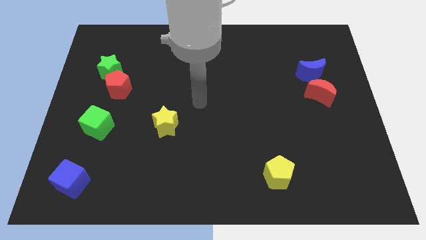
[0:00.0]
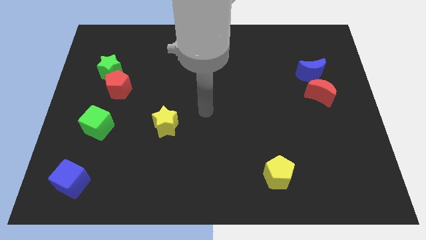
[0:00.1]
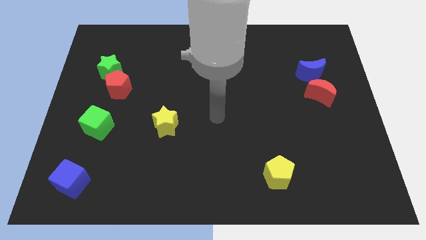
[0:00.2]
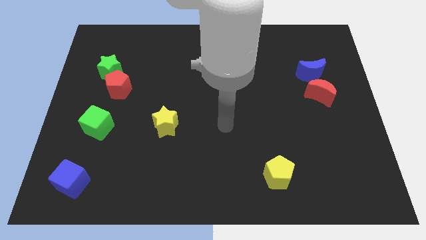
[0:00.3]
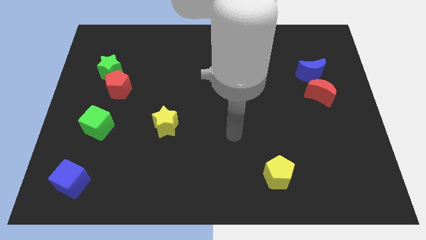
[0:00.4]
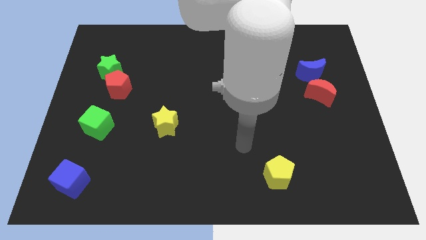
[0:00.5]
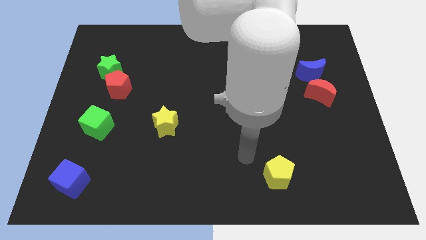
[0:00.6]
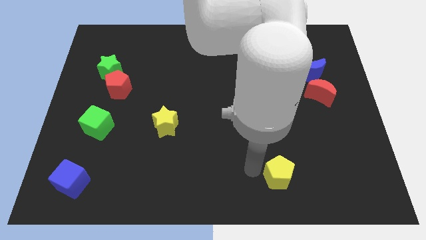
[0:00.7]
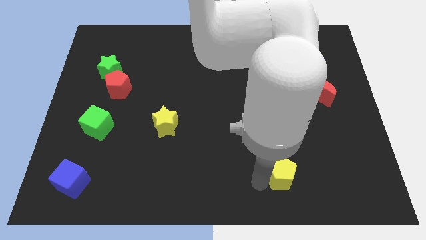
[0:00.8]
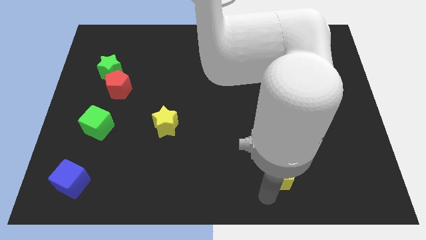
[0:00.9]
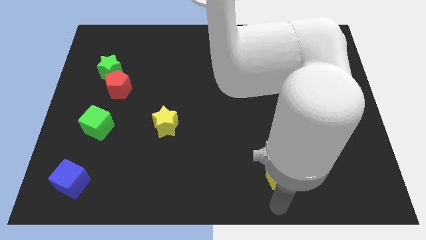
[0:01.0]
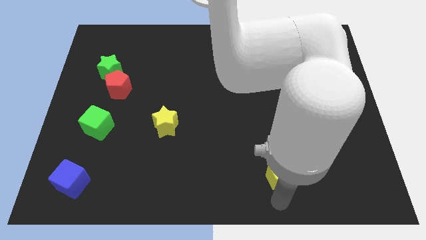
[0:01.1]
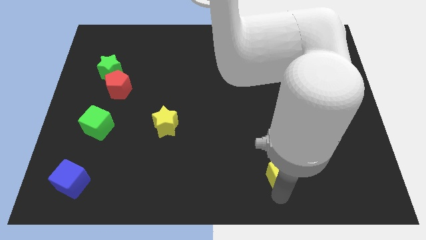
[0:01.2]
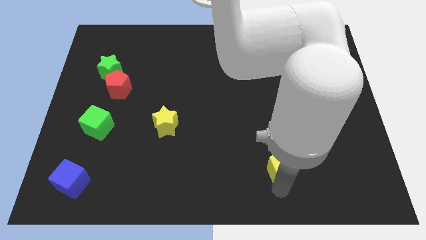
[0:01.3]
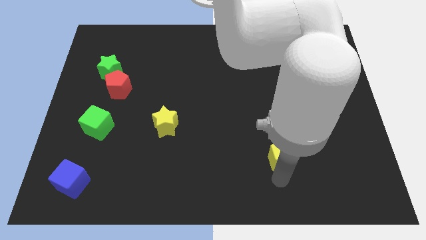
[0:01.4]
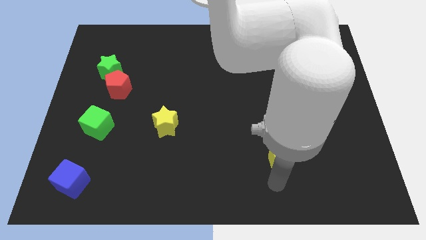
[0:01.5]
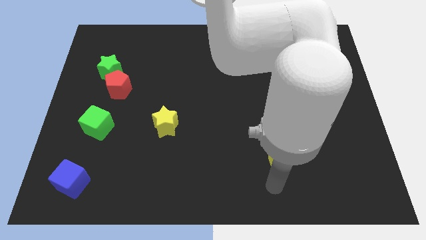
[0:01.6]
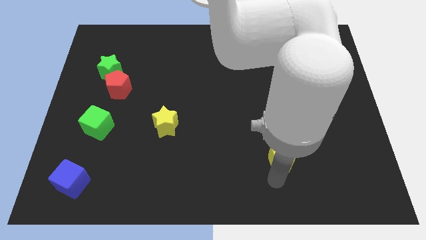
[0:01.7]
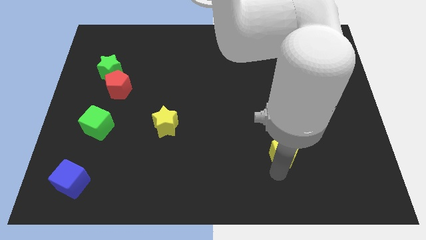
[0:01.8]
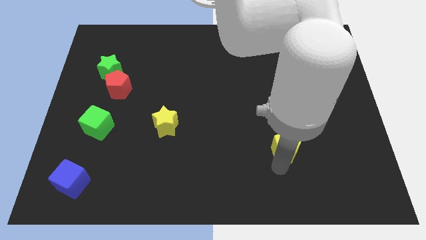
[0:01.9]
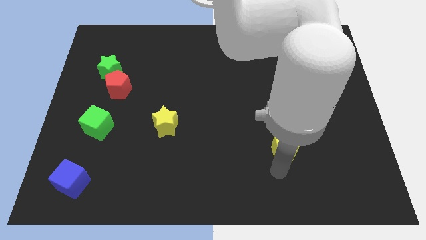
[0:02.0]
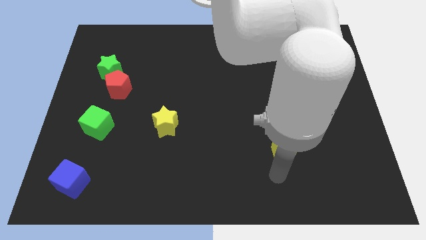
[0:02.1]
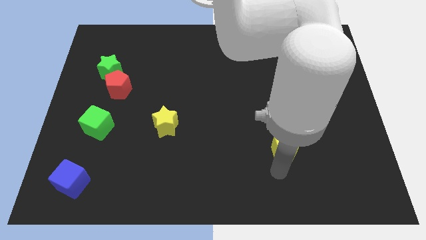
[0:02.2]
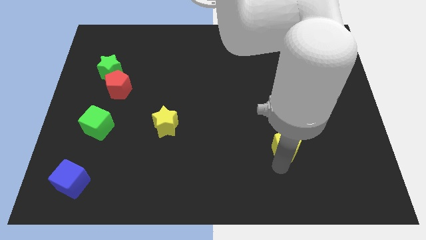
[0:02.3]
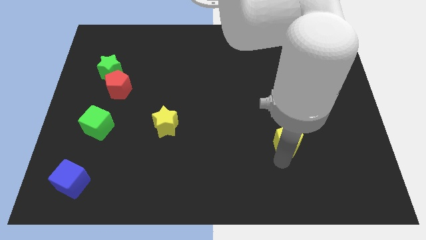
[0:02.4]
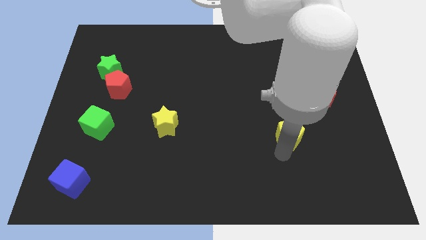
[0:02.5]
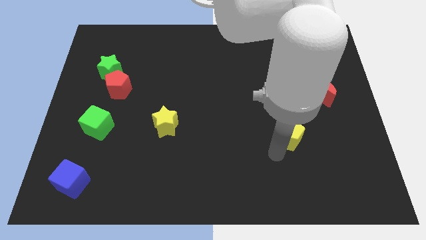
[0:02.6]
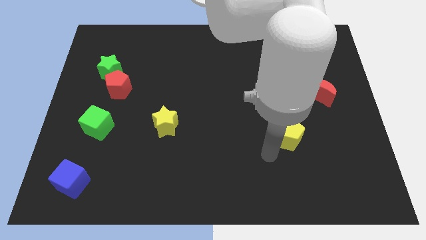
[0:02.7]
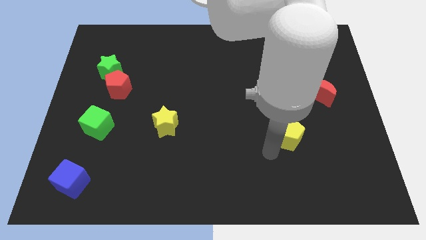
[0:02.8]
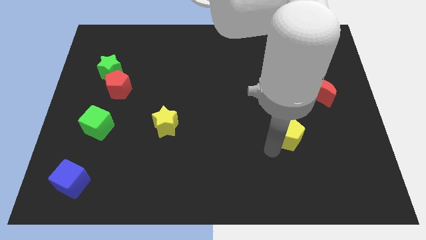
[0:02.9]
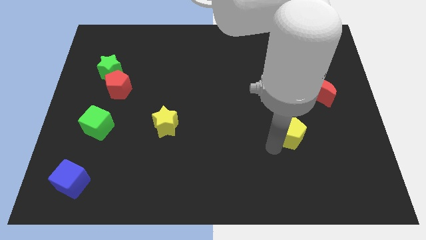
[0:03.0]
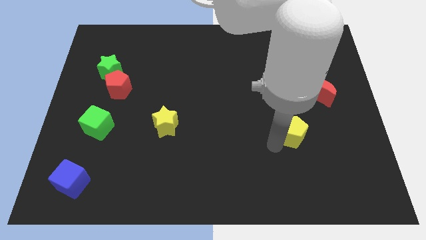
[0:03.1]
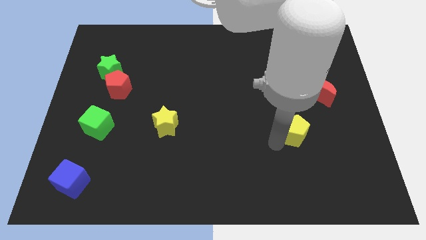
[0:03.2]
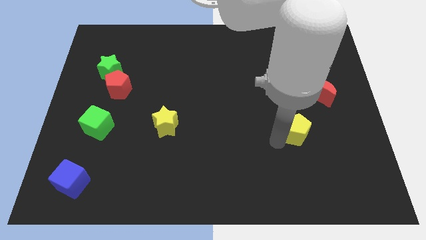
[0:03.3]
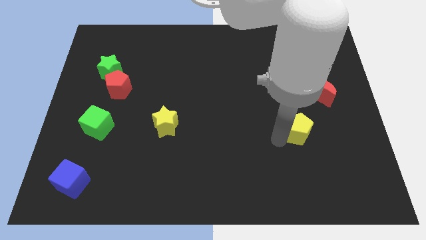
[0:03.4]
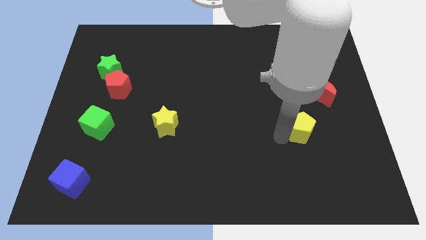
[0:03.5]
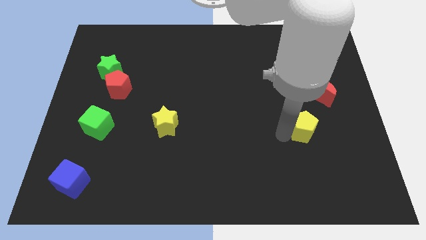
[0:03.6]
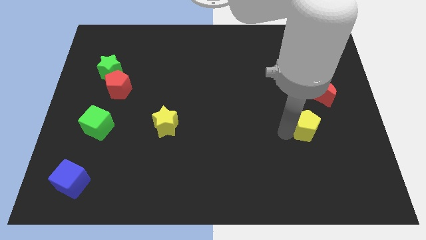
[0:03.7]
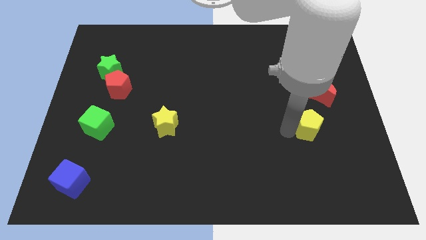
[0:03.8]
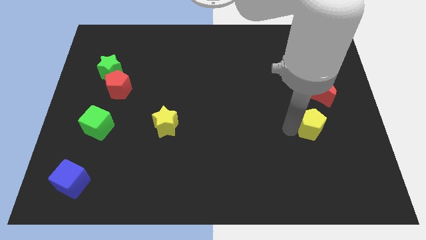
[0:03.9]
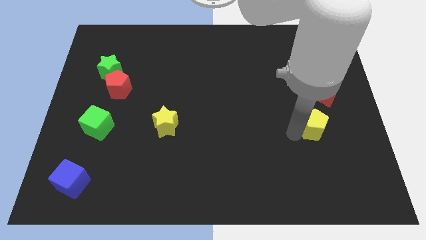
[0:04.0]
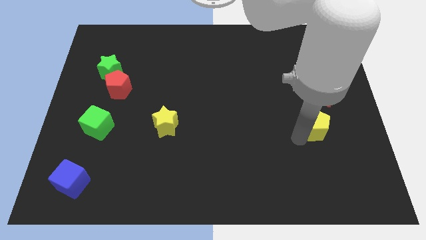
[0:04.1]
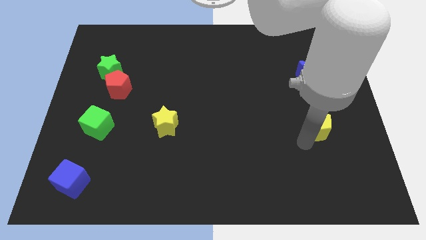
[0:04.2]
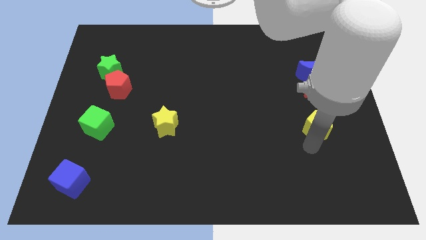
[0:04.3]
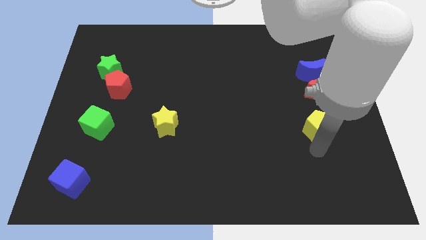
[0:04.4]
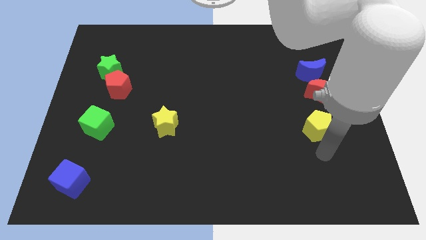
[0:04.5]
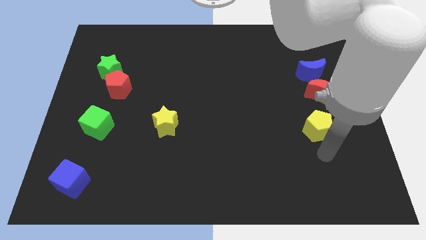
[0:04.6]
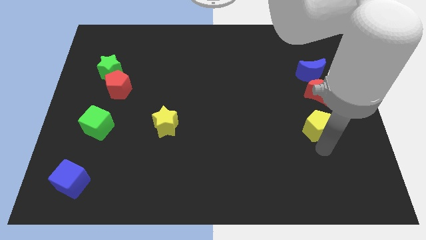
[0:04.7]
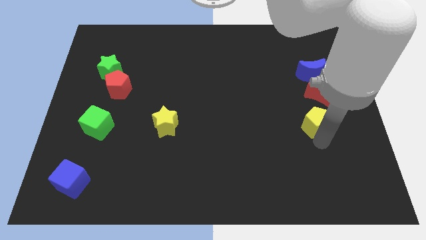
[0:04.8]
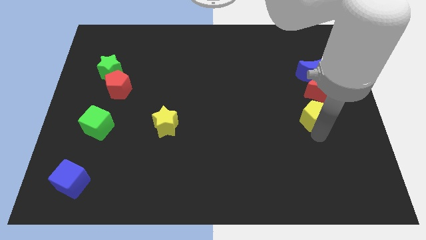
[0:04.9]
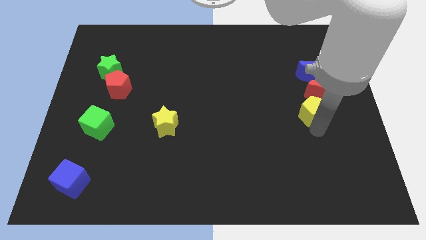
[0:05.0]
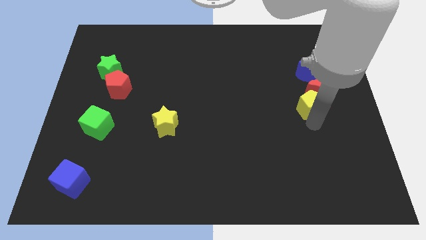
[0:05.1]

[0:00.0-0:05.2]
move the yellow pentagon close to the red moon

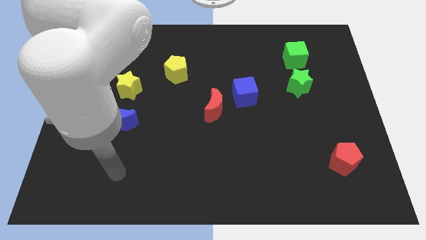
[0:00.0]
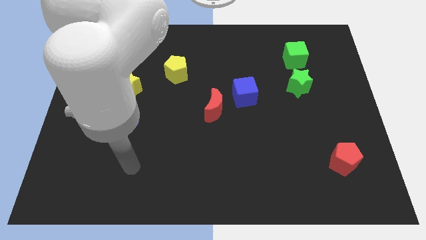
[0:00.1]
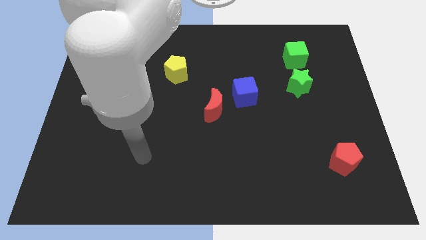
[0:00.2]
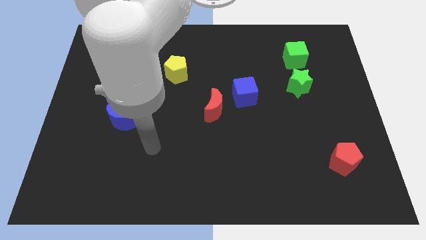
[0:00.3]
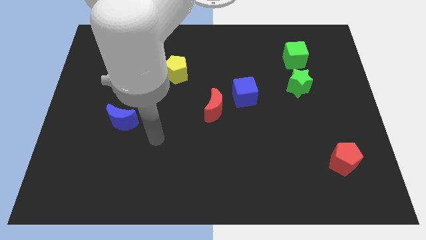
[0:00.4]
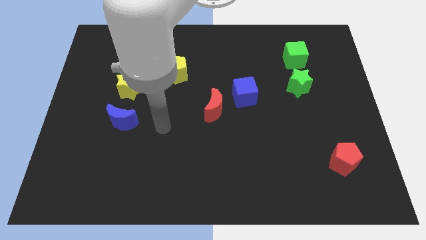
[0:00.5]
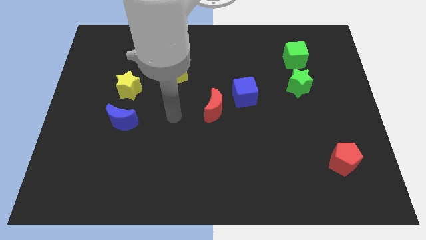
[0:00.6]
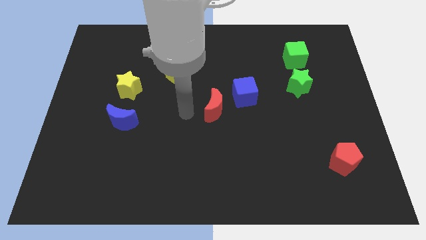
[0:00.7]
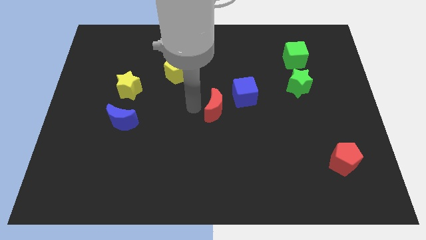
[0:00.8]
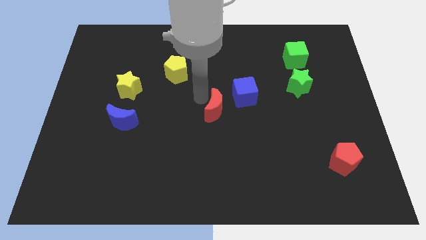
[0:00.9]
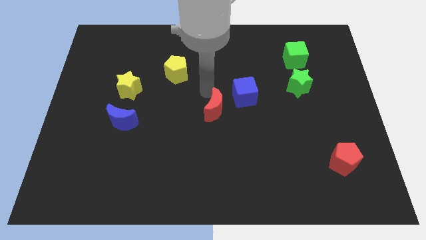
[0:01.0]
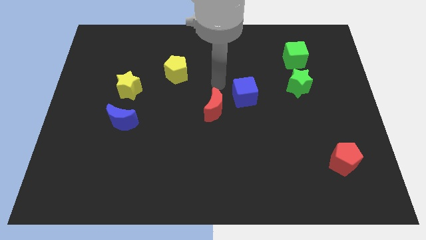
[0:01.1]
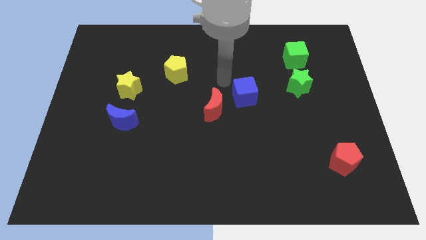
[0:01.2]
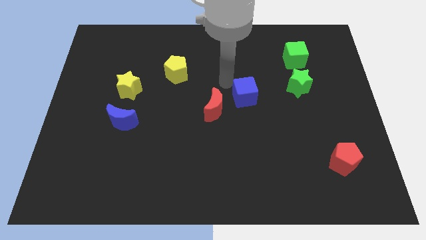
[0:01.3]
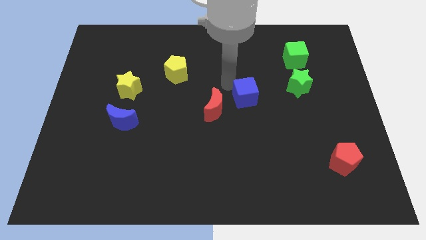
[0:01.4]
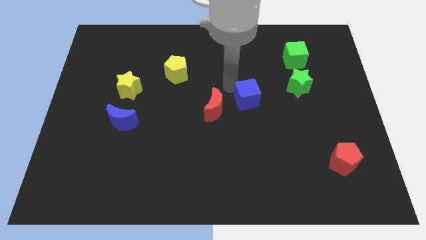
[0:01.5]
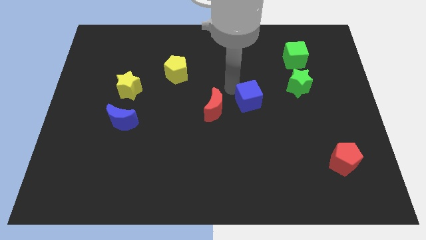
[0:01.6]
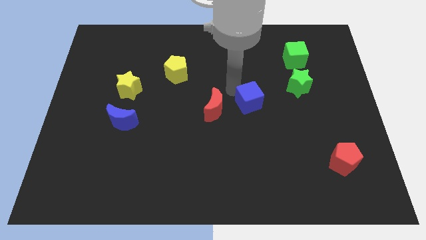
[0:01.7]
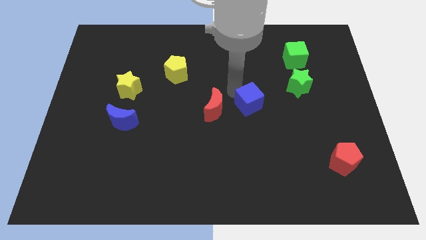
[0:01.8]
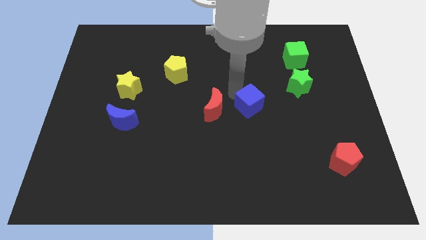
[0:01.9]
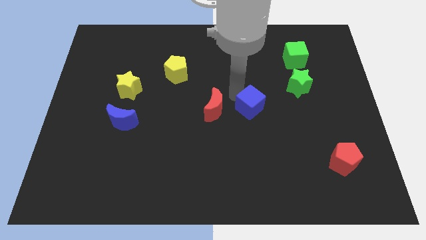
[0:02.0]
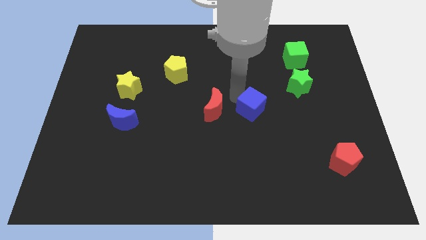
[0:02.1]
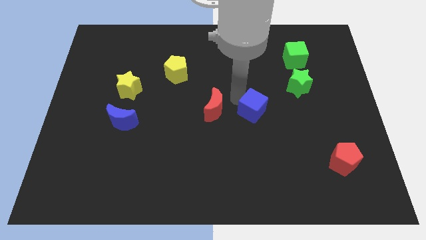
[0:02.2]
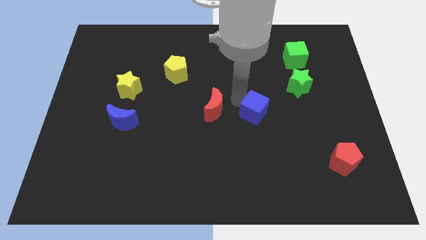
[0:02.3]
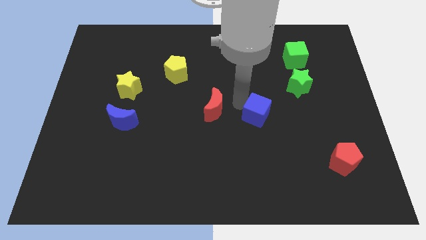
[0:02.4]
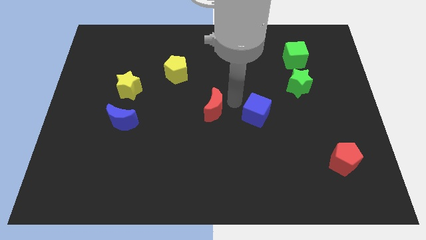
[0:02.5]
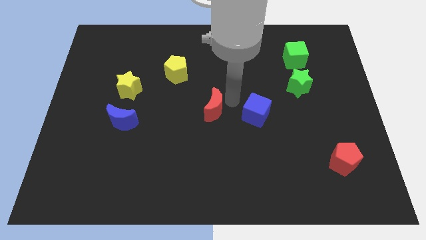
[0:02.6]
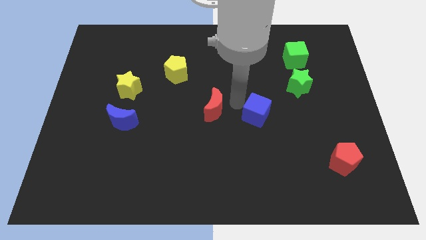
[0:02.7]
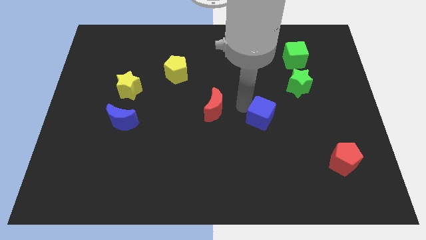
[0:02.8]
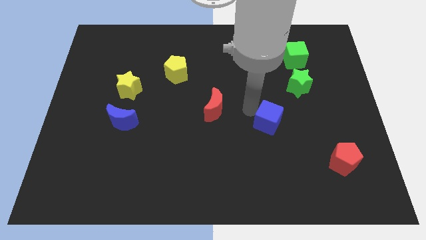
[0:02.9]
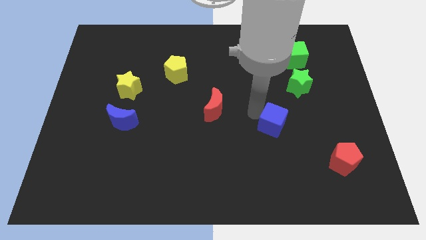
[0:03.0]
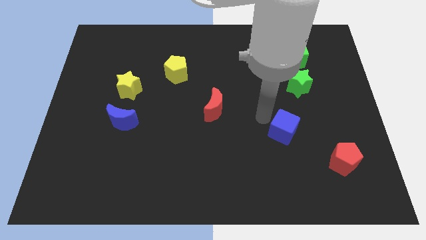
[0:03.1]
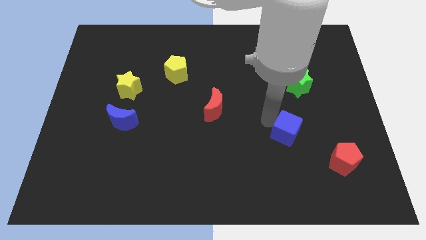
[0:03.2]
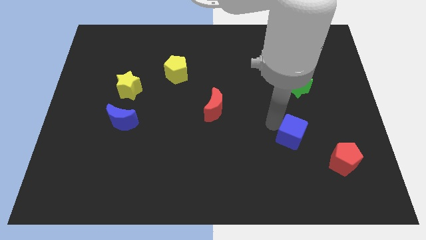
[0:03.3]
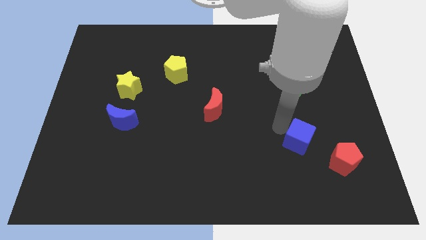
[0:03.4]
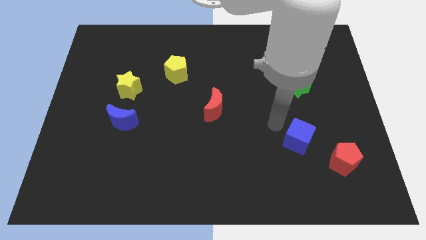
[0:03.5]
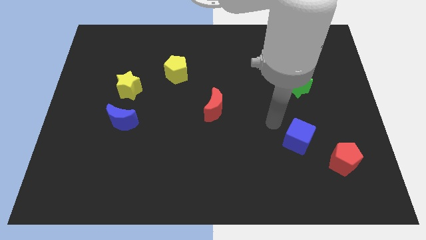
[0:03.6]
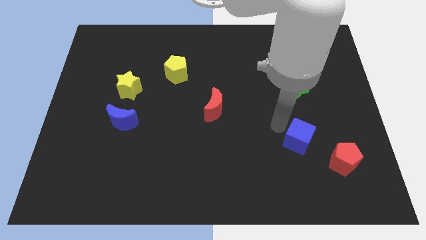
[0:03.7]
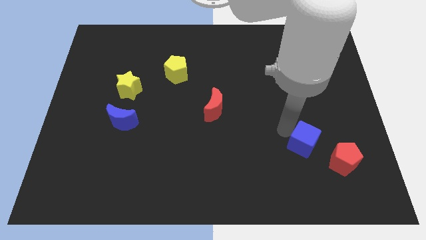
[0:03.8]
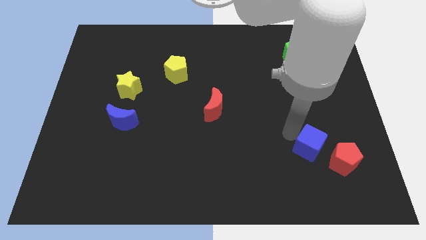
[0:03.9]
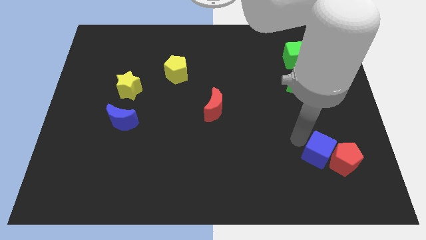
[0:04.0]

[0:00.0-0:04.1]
put the blue cube towards the red pentagon
